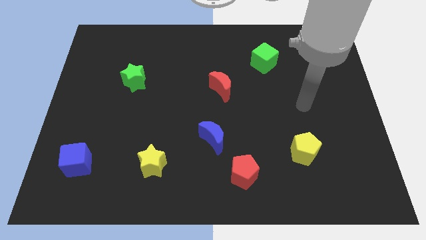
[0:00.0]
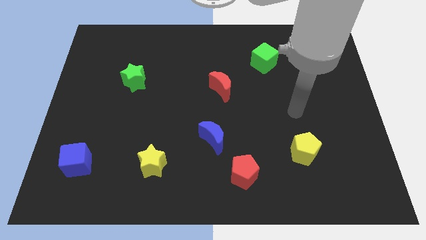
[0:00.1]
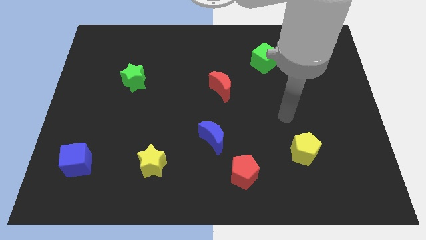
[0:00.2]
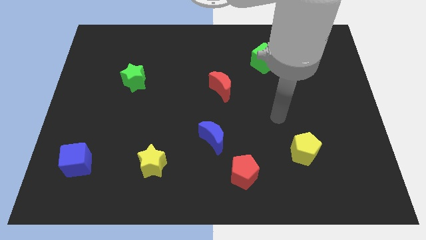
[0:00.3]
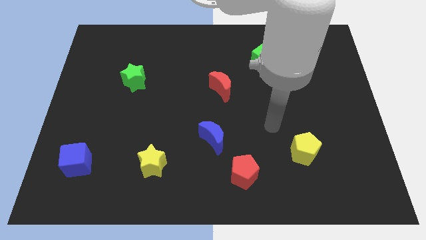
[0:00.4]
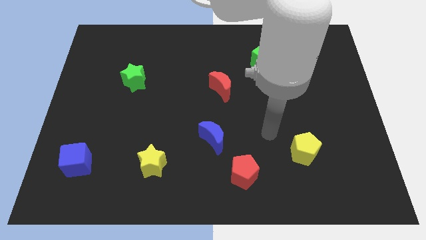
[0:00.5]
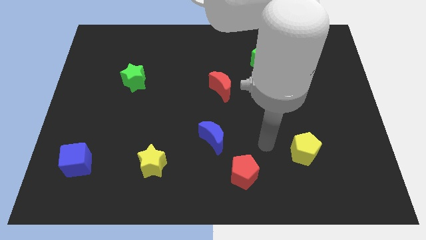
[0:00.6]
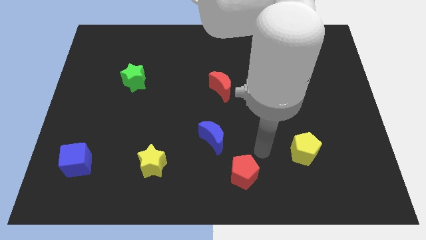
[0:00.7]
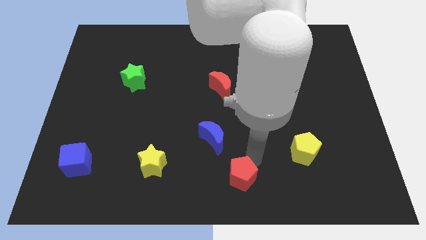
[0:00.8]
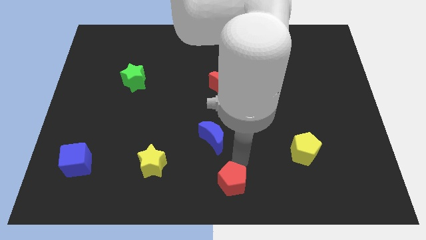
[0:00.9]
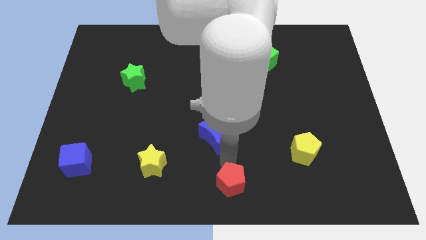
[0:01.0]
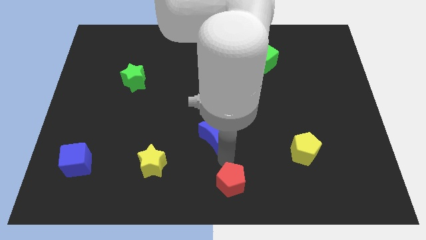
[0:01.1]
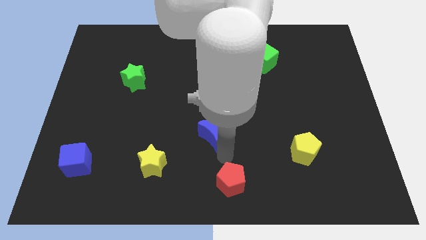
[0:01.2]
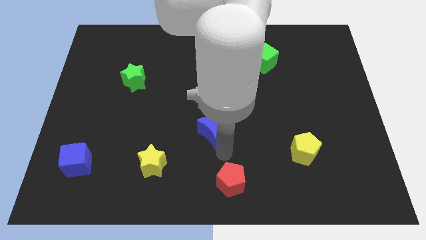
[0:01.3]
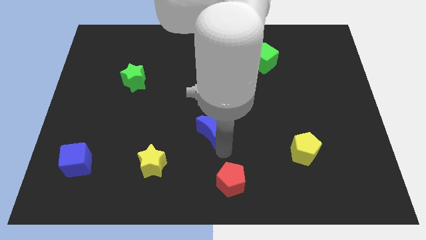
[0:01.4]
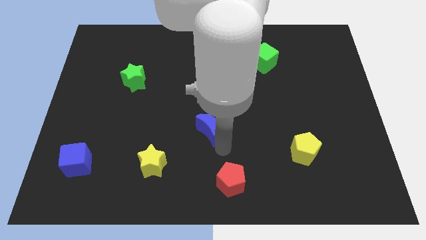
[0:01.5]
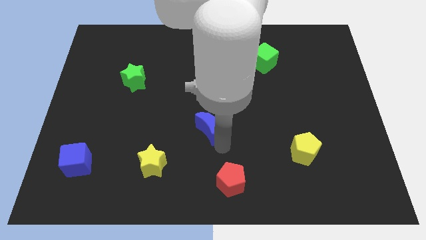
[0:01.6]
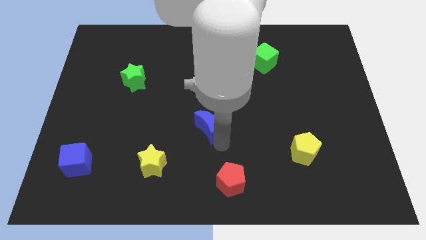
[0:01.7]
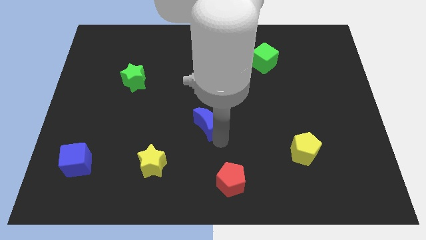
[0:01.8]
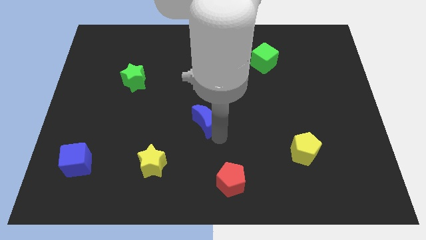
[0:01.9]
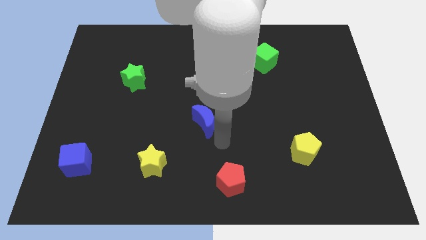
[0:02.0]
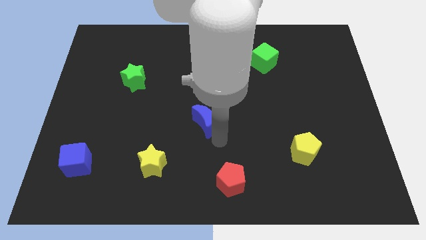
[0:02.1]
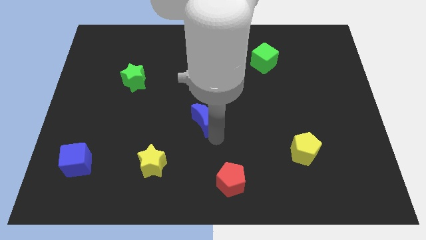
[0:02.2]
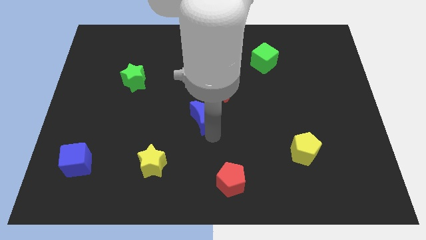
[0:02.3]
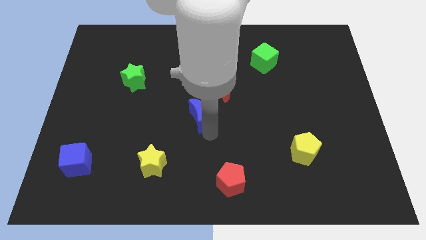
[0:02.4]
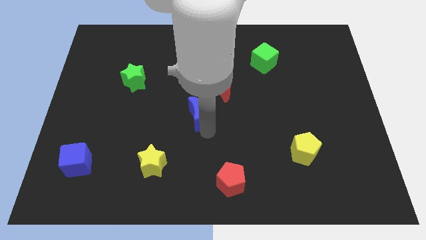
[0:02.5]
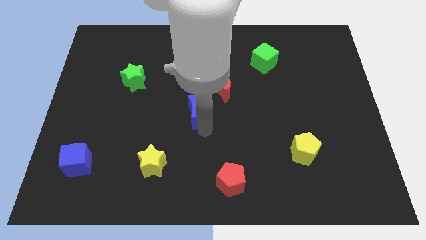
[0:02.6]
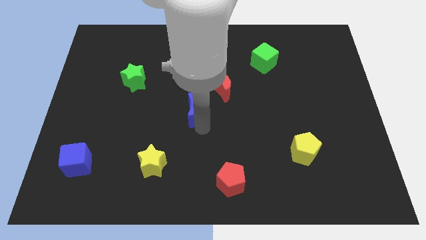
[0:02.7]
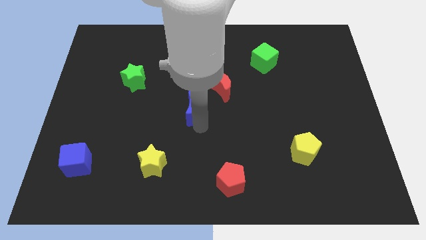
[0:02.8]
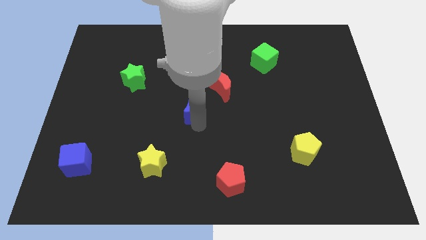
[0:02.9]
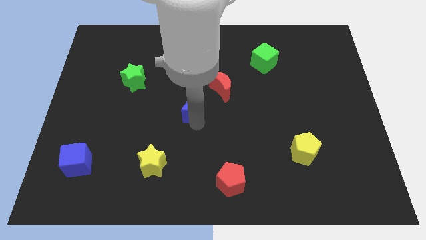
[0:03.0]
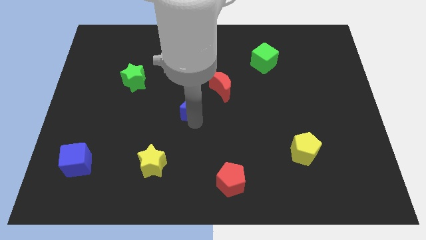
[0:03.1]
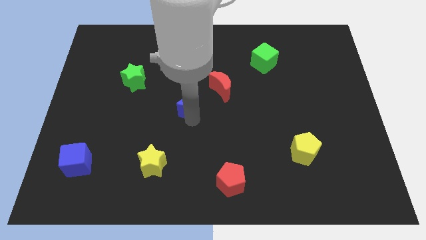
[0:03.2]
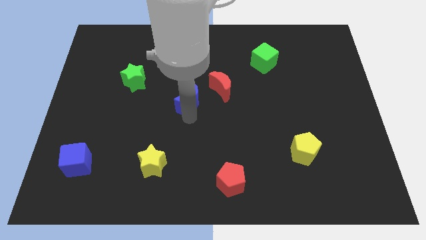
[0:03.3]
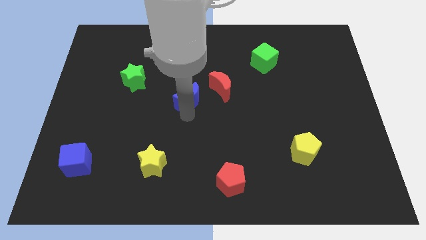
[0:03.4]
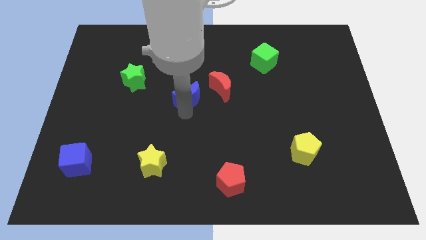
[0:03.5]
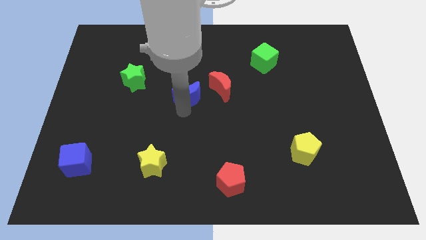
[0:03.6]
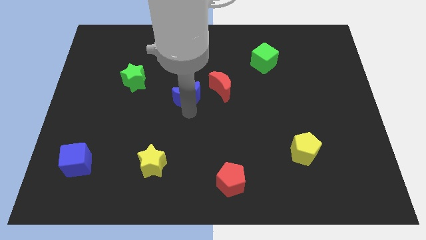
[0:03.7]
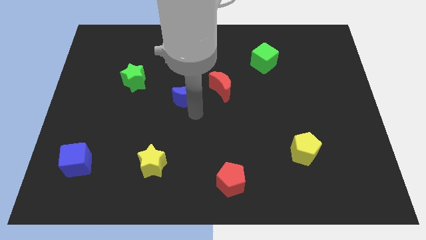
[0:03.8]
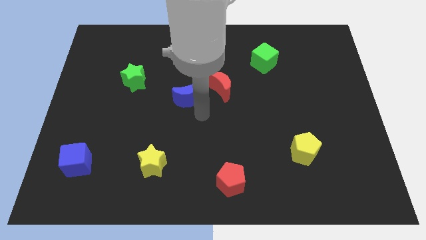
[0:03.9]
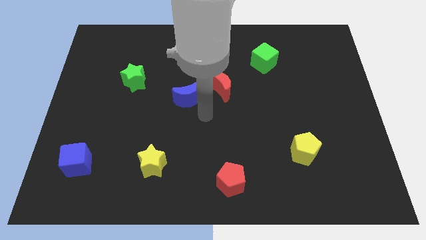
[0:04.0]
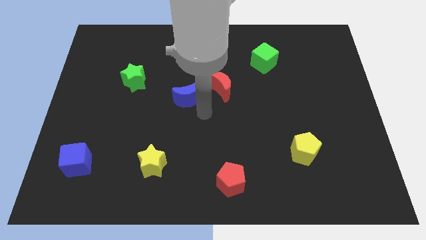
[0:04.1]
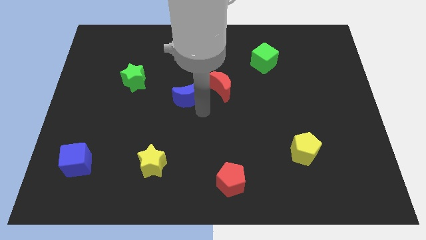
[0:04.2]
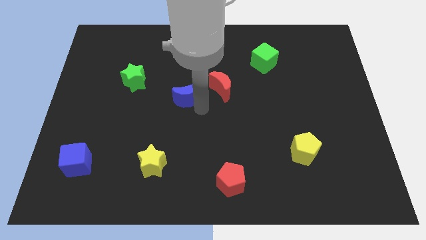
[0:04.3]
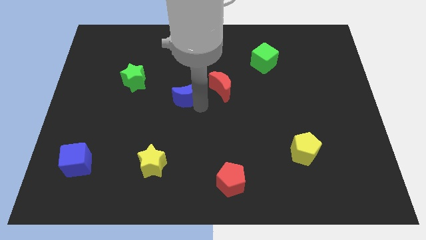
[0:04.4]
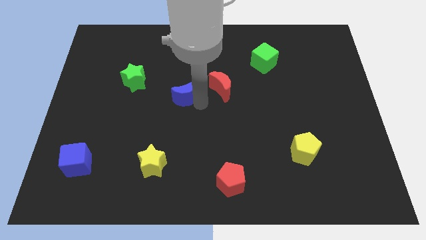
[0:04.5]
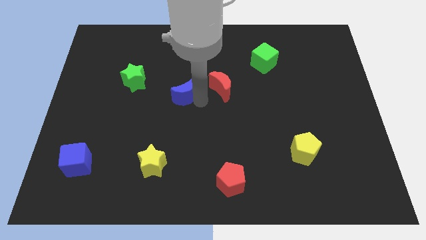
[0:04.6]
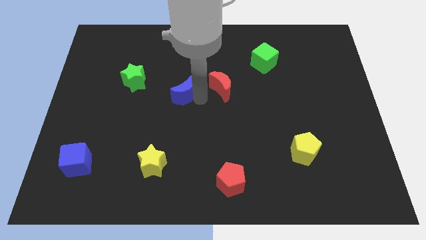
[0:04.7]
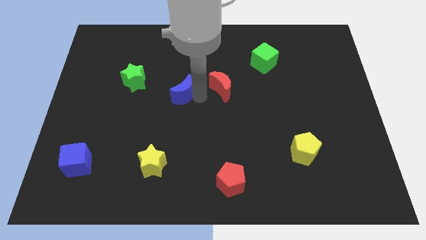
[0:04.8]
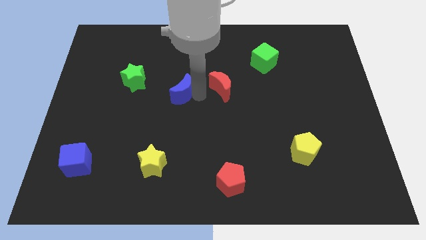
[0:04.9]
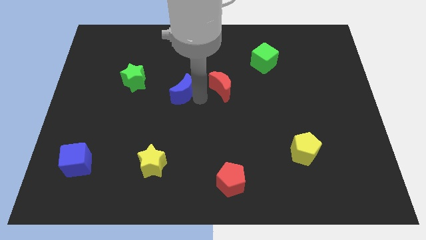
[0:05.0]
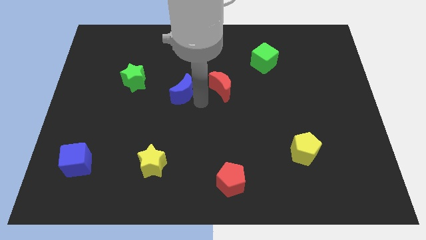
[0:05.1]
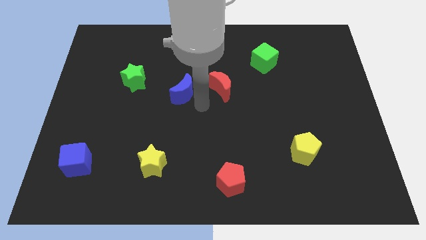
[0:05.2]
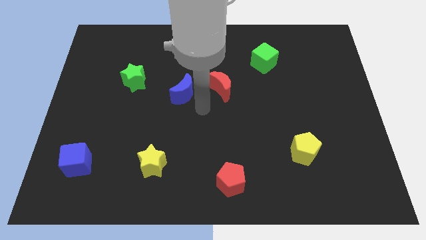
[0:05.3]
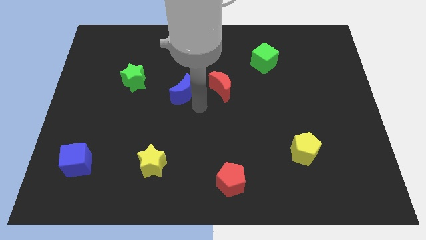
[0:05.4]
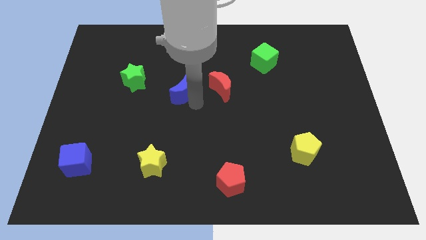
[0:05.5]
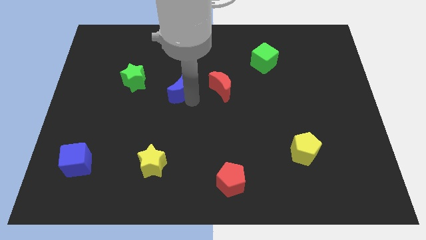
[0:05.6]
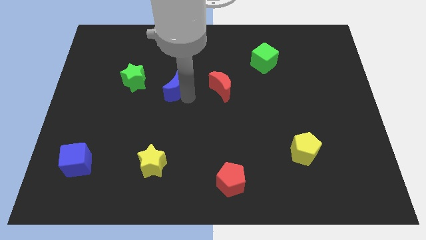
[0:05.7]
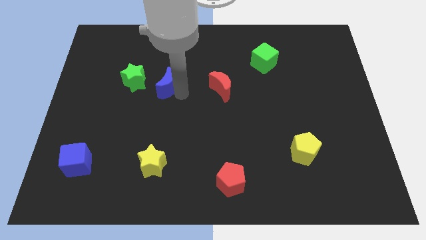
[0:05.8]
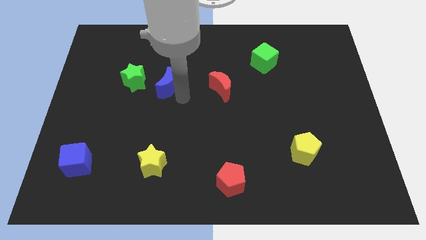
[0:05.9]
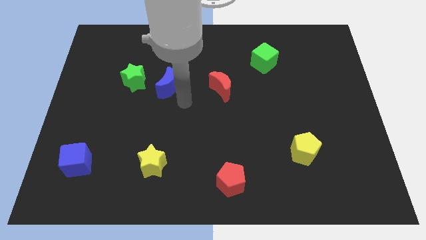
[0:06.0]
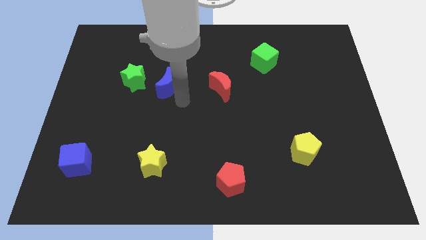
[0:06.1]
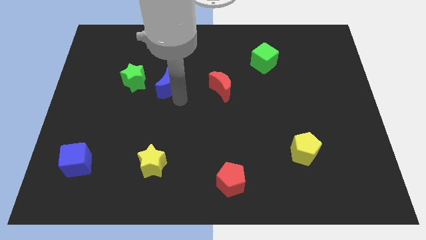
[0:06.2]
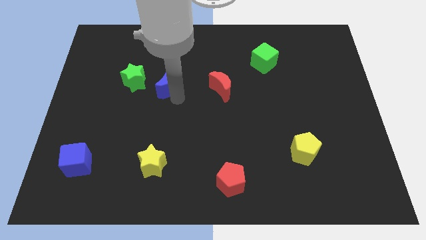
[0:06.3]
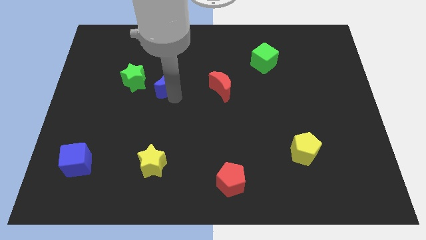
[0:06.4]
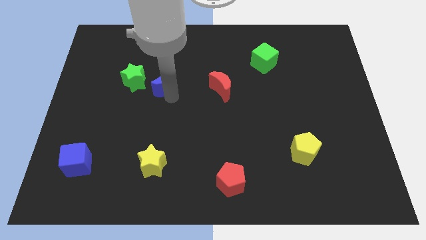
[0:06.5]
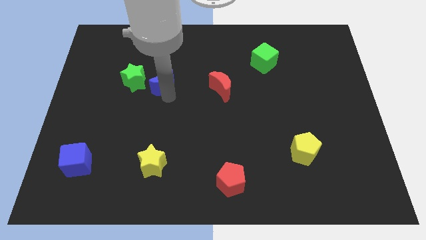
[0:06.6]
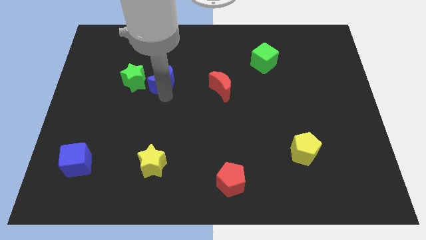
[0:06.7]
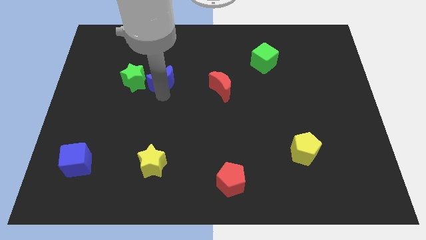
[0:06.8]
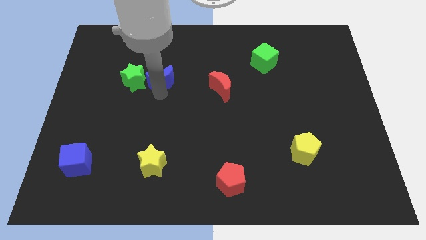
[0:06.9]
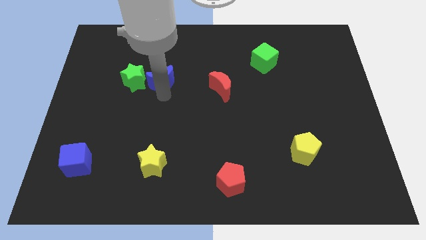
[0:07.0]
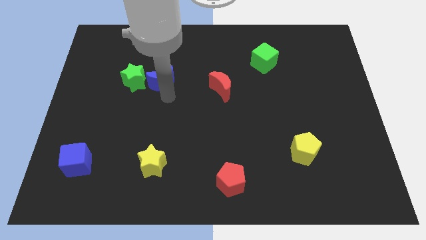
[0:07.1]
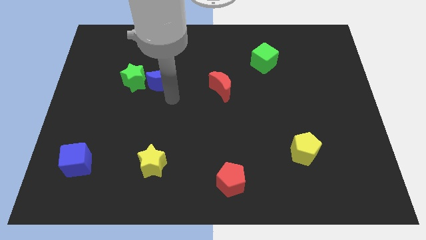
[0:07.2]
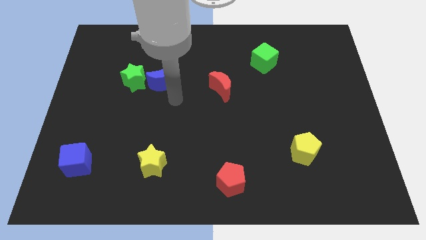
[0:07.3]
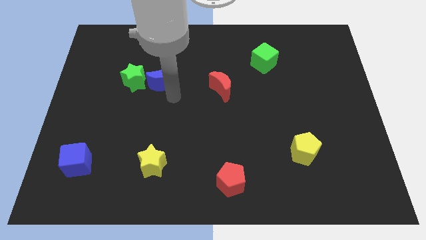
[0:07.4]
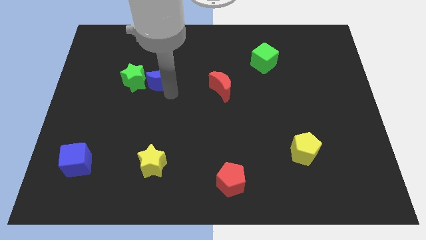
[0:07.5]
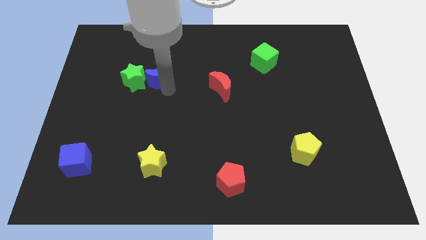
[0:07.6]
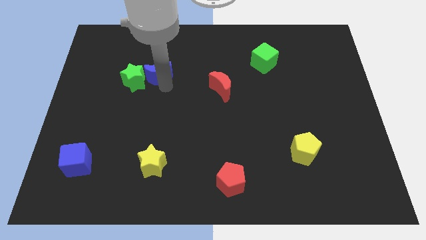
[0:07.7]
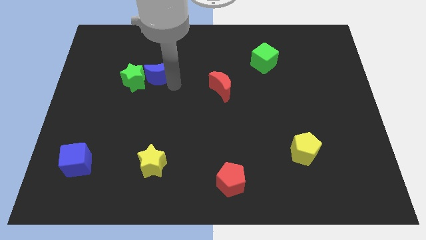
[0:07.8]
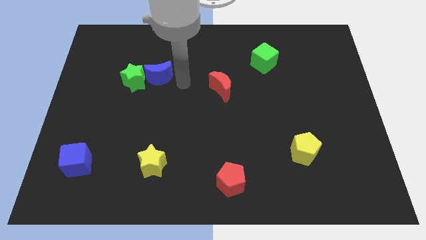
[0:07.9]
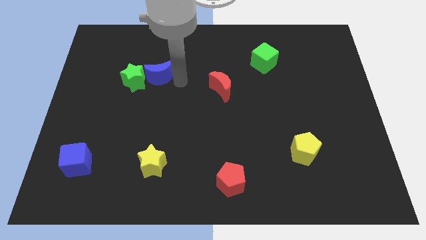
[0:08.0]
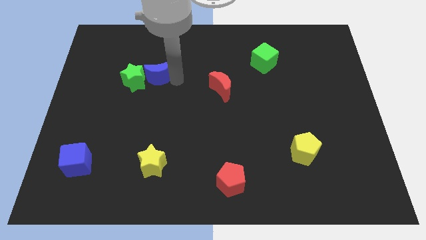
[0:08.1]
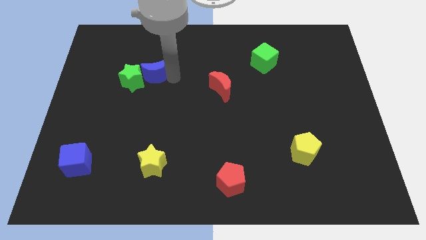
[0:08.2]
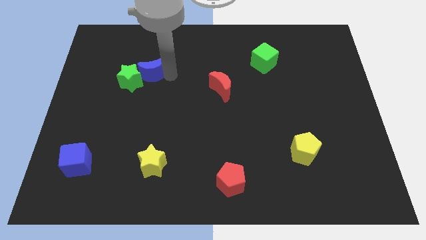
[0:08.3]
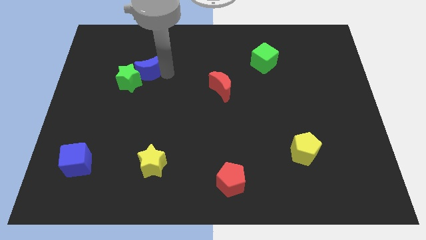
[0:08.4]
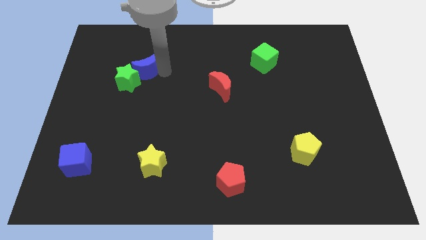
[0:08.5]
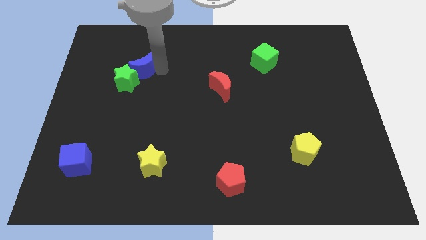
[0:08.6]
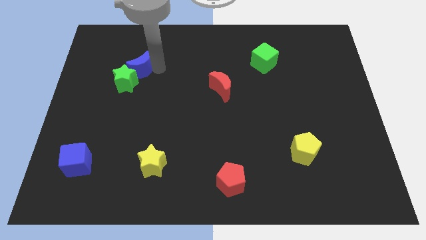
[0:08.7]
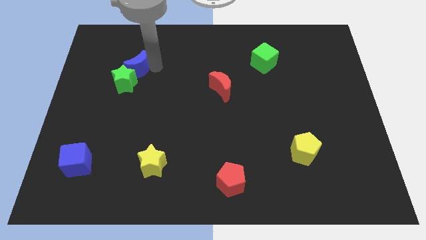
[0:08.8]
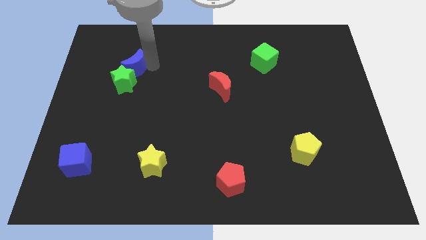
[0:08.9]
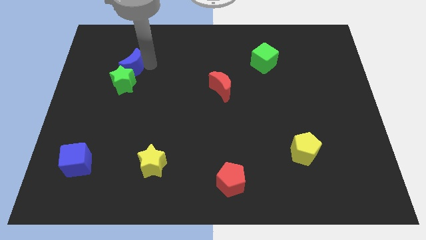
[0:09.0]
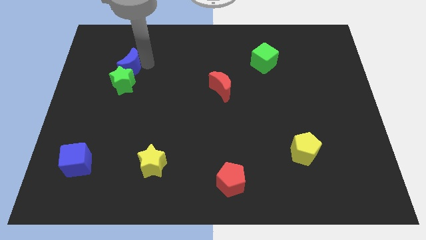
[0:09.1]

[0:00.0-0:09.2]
put the blue moon to the top left of the green star
